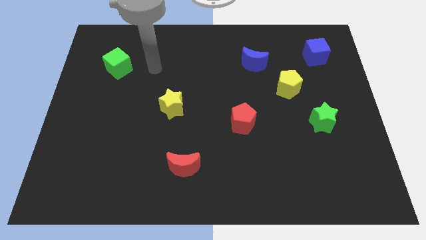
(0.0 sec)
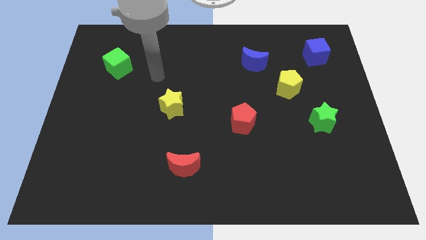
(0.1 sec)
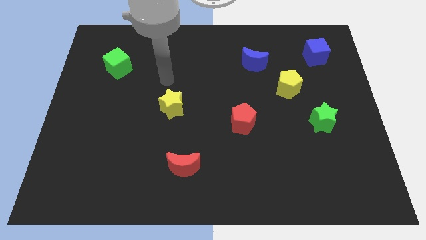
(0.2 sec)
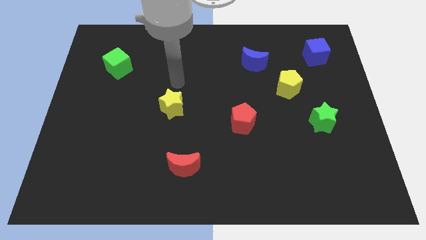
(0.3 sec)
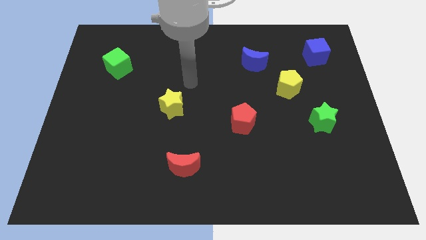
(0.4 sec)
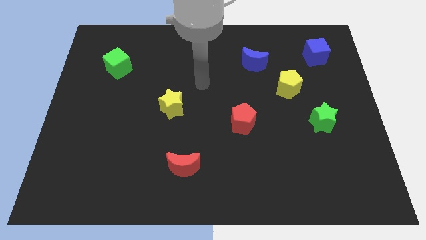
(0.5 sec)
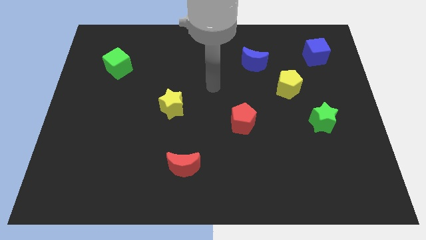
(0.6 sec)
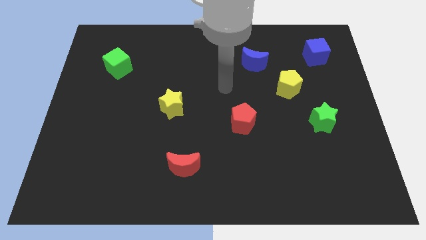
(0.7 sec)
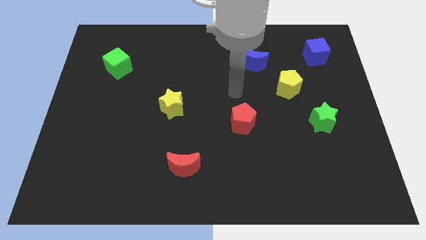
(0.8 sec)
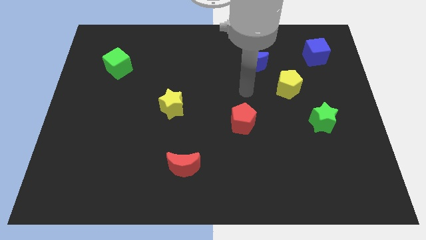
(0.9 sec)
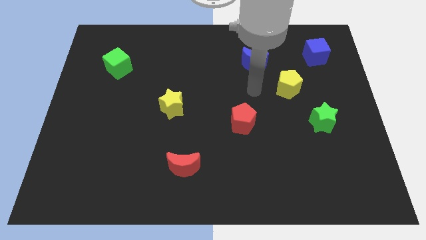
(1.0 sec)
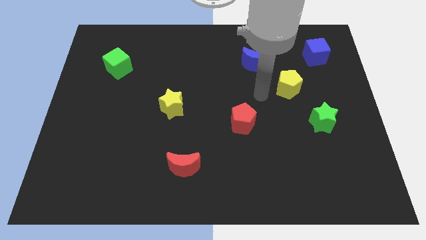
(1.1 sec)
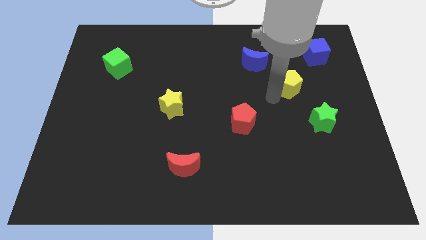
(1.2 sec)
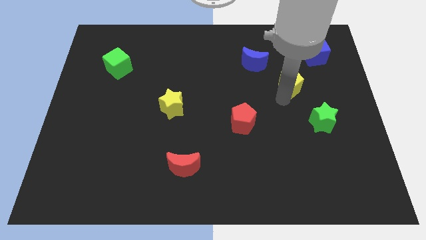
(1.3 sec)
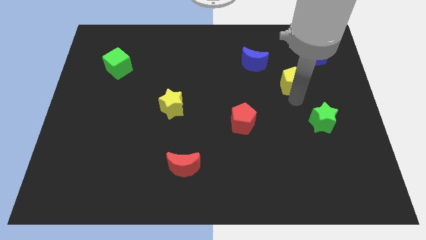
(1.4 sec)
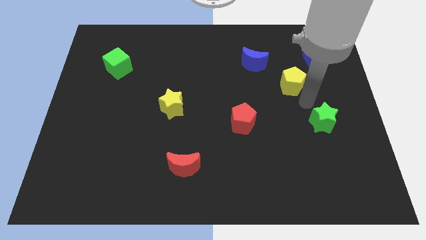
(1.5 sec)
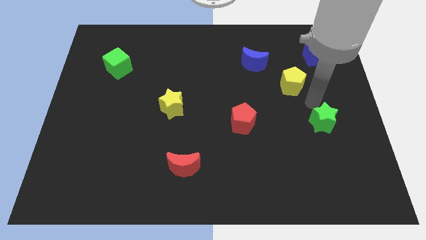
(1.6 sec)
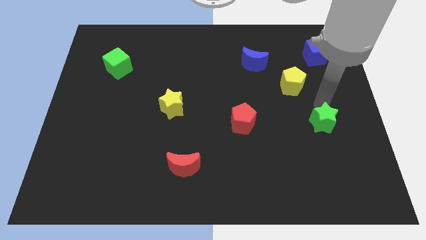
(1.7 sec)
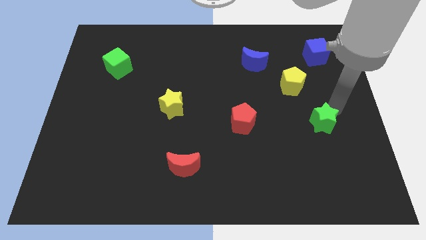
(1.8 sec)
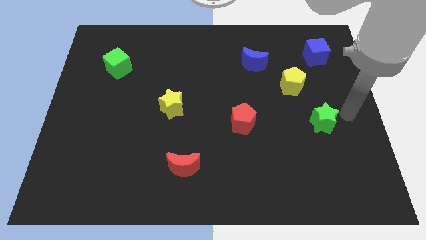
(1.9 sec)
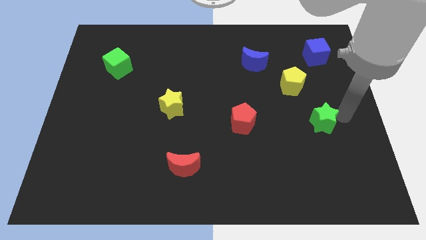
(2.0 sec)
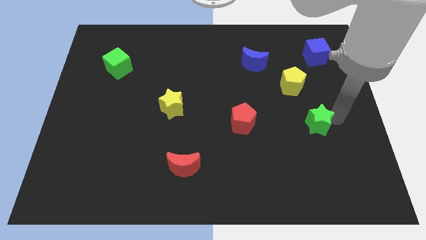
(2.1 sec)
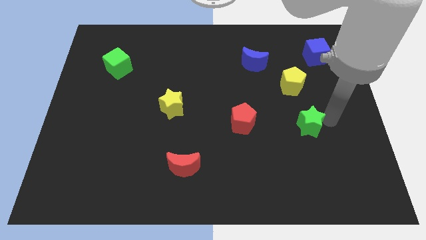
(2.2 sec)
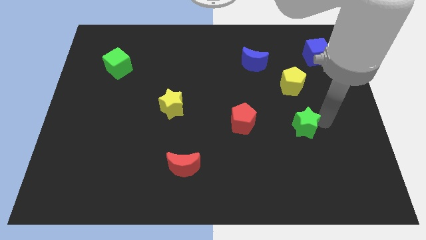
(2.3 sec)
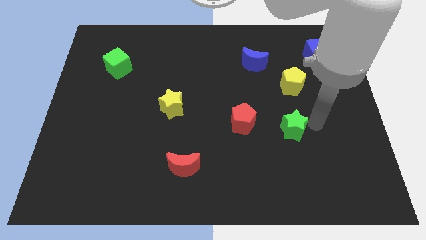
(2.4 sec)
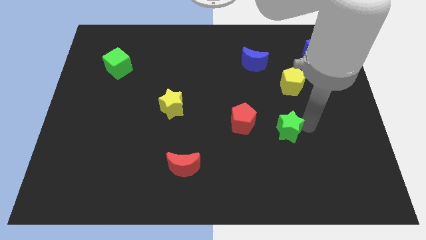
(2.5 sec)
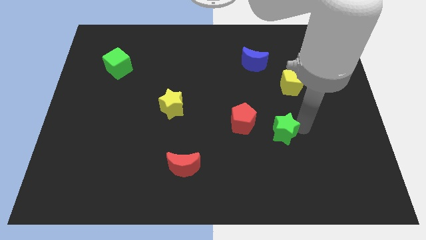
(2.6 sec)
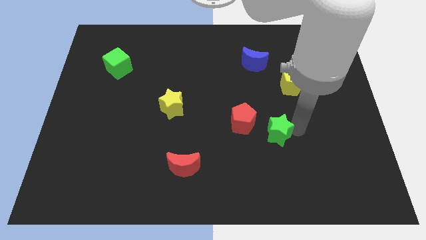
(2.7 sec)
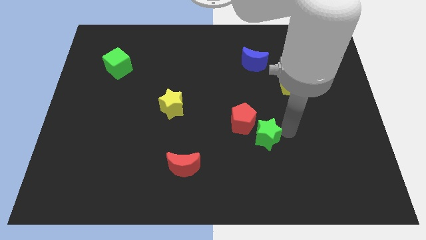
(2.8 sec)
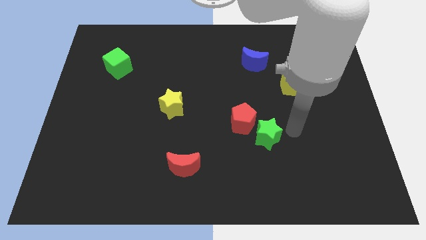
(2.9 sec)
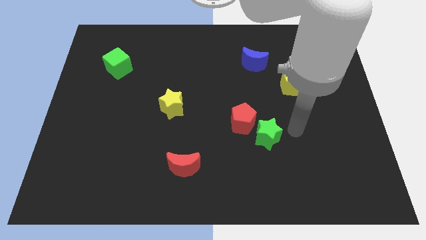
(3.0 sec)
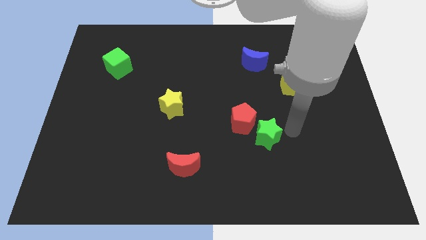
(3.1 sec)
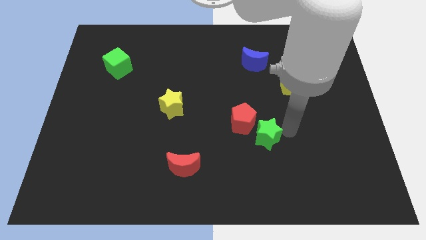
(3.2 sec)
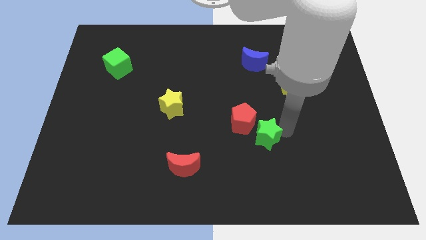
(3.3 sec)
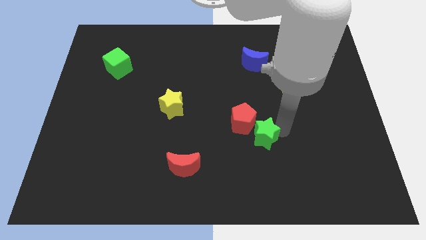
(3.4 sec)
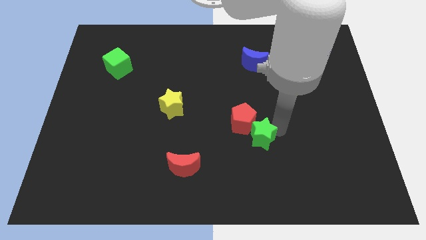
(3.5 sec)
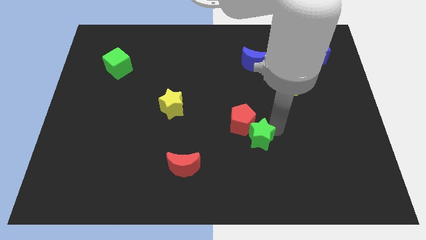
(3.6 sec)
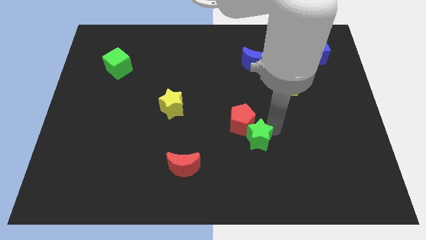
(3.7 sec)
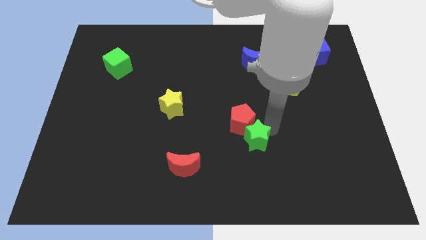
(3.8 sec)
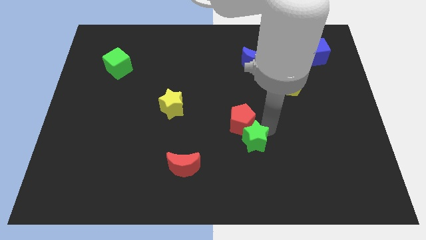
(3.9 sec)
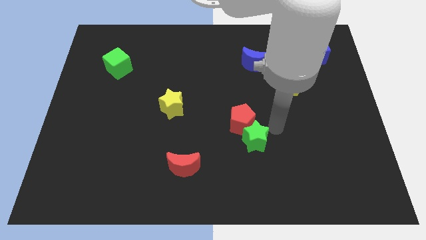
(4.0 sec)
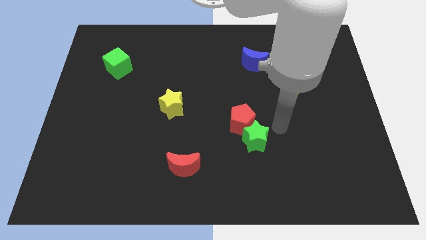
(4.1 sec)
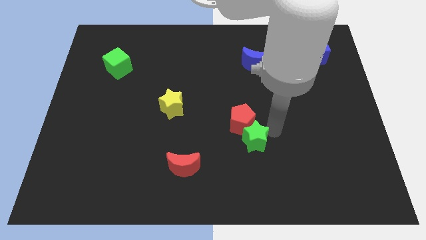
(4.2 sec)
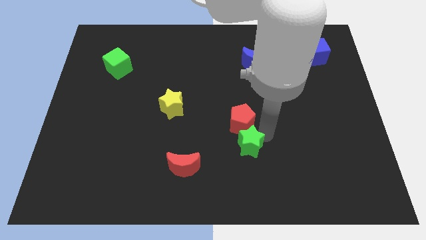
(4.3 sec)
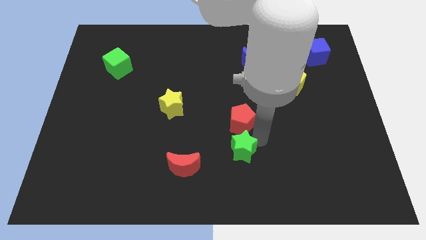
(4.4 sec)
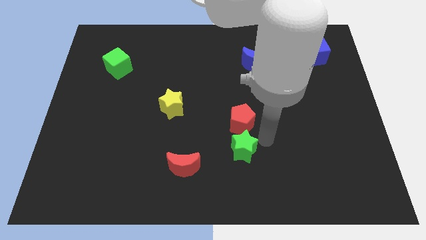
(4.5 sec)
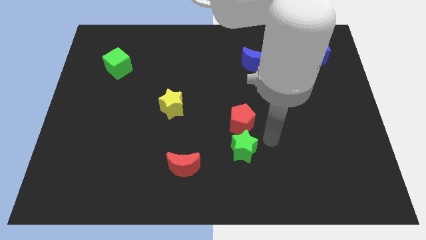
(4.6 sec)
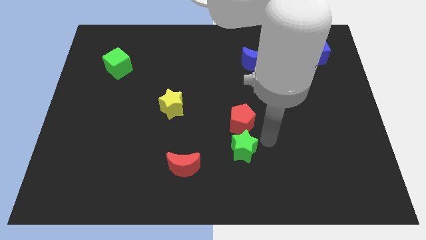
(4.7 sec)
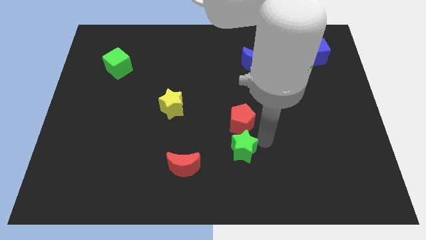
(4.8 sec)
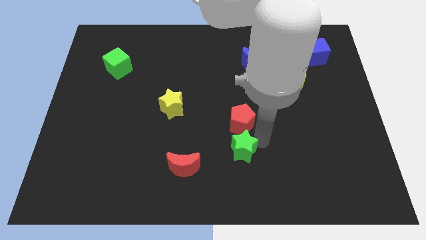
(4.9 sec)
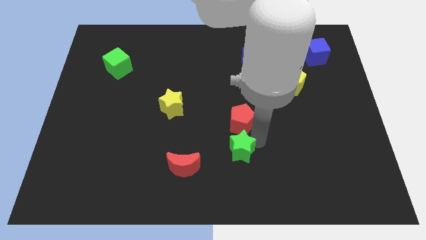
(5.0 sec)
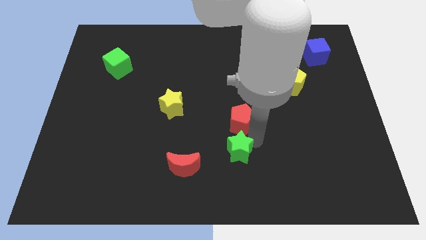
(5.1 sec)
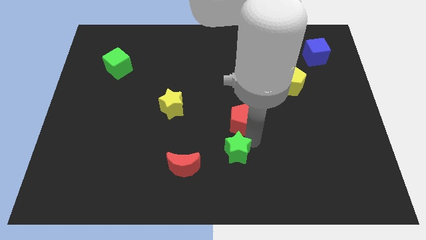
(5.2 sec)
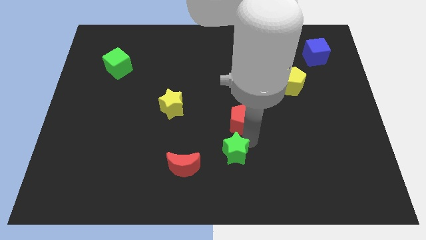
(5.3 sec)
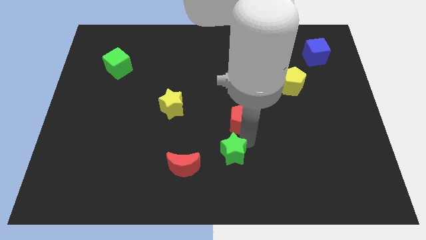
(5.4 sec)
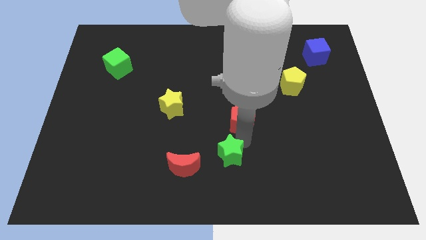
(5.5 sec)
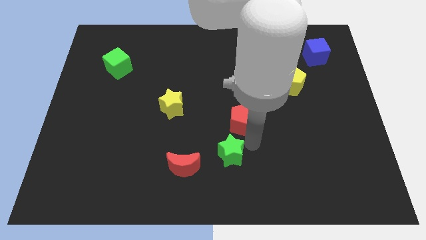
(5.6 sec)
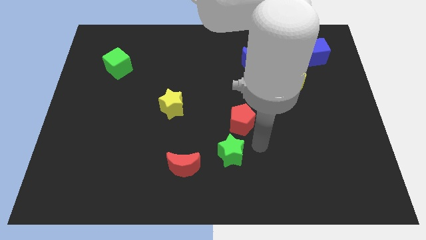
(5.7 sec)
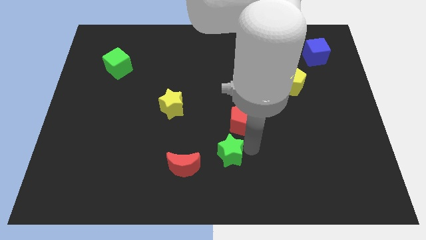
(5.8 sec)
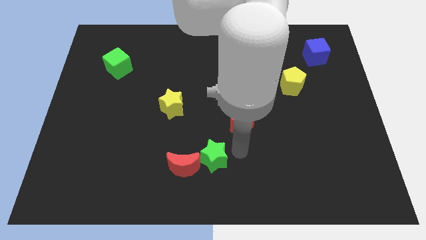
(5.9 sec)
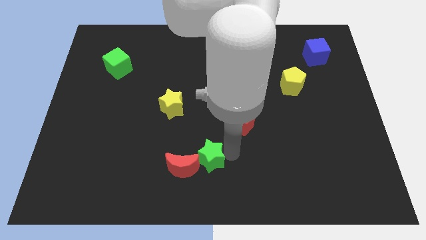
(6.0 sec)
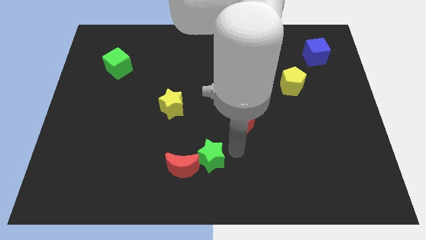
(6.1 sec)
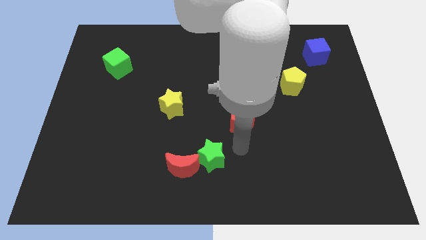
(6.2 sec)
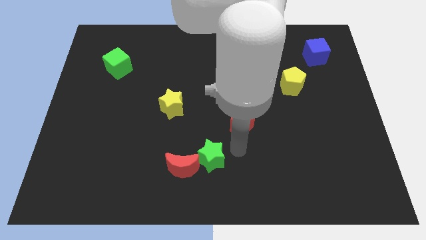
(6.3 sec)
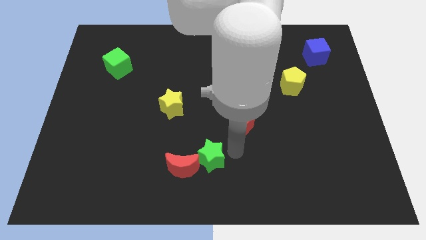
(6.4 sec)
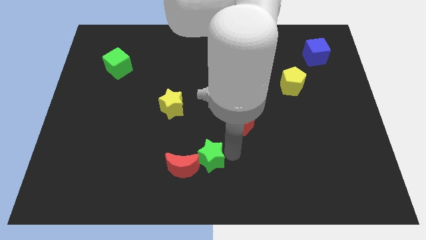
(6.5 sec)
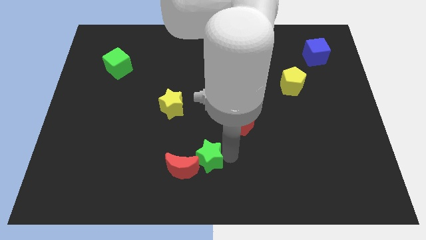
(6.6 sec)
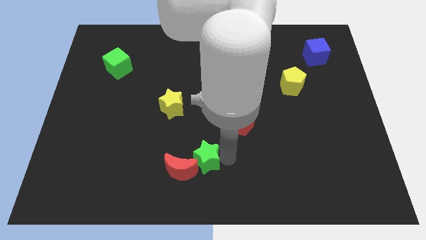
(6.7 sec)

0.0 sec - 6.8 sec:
move the green star to the red moon

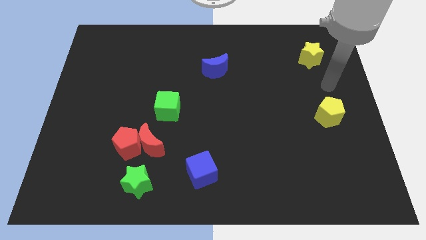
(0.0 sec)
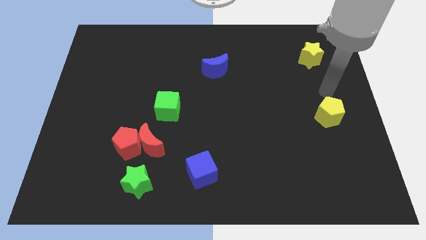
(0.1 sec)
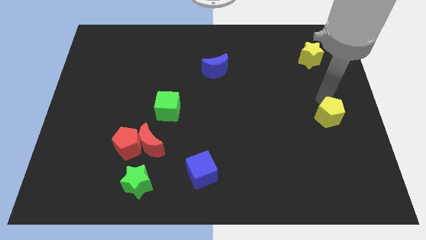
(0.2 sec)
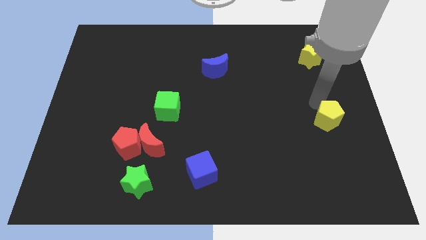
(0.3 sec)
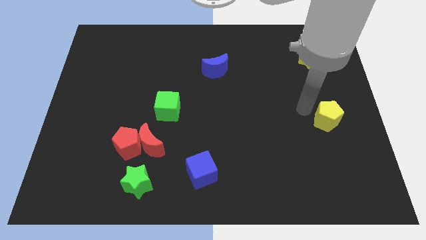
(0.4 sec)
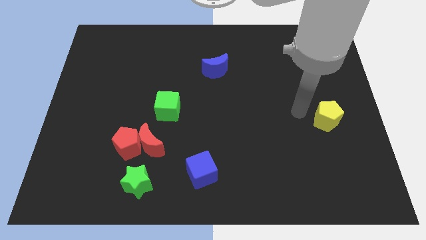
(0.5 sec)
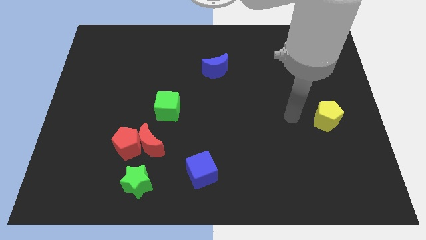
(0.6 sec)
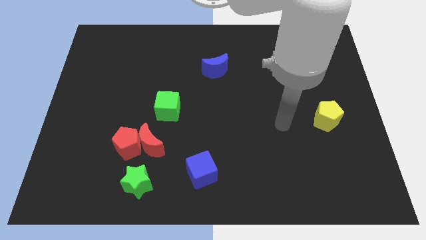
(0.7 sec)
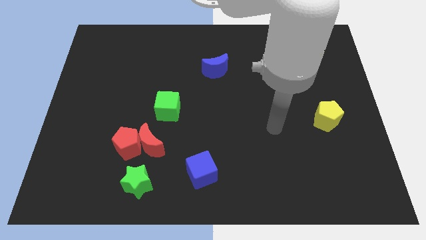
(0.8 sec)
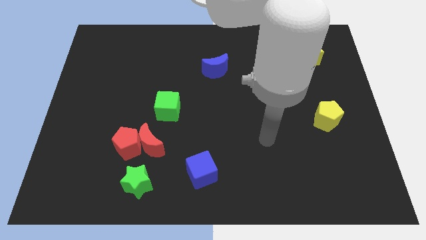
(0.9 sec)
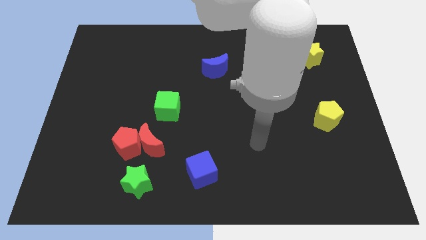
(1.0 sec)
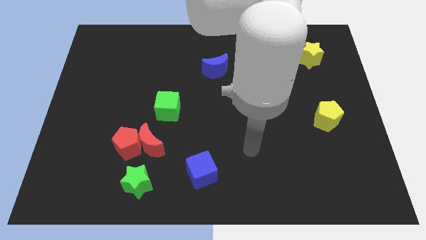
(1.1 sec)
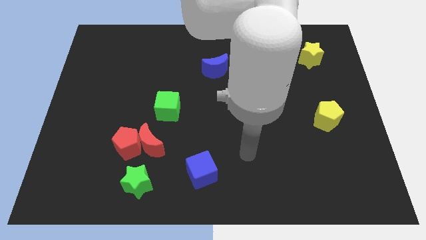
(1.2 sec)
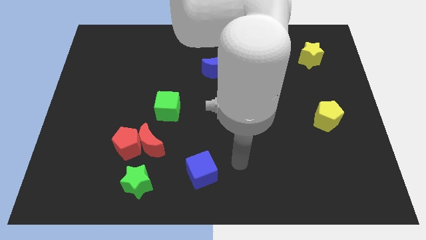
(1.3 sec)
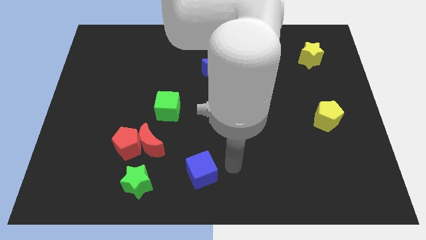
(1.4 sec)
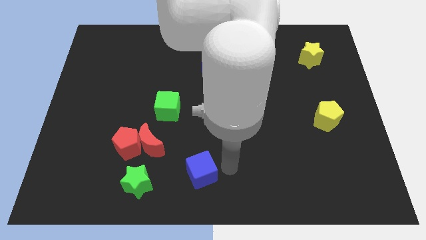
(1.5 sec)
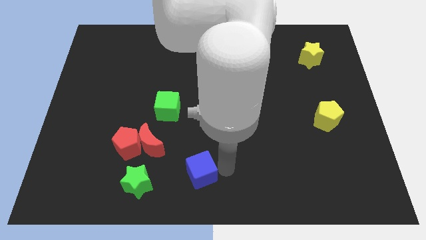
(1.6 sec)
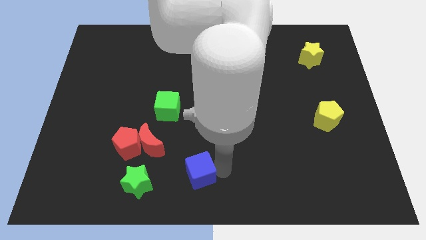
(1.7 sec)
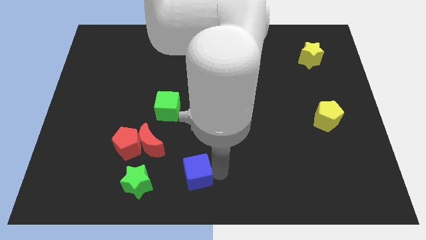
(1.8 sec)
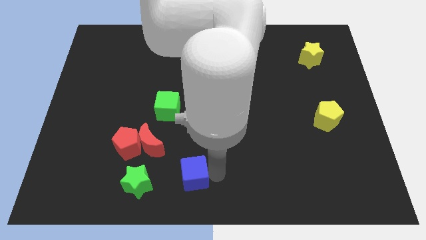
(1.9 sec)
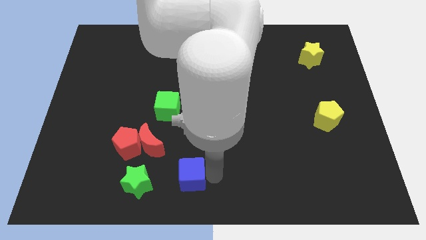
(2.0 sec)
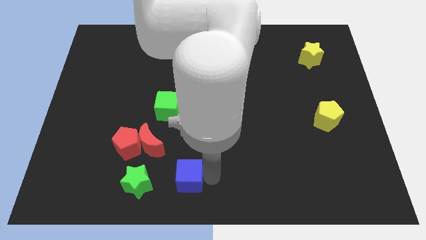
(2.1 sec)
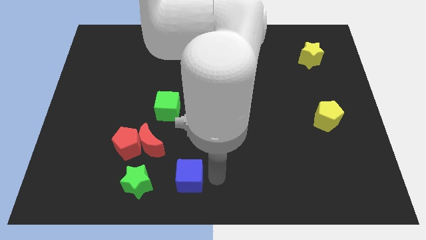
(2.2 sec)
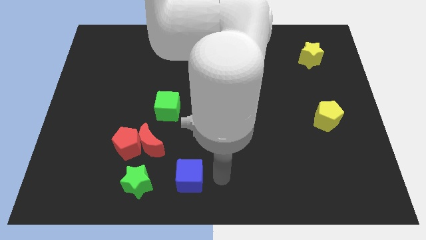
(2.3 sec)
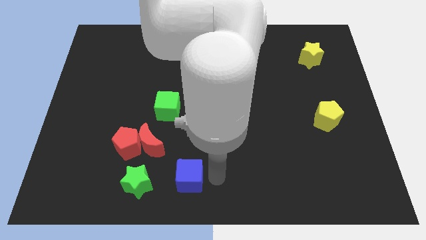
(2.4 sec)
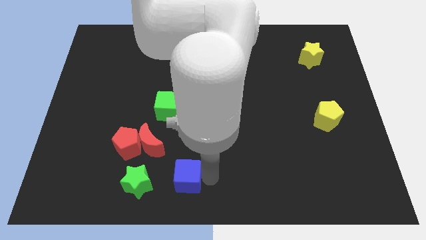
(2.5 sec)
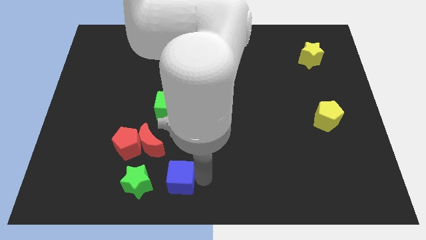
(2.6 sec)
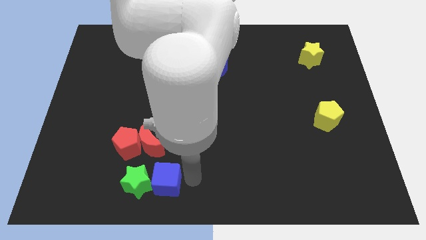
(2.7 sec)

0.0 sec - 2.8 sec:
put the blue cube towards the green star
